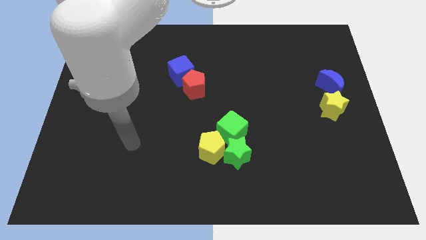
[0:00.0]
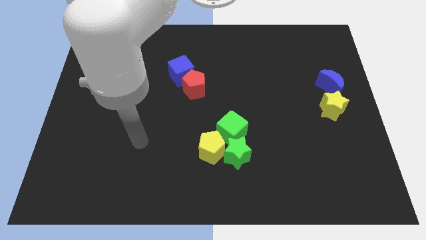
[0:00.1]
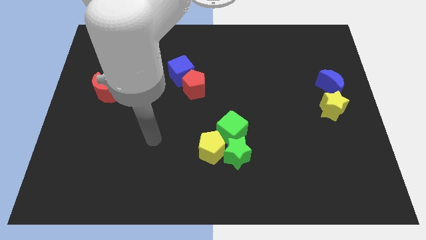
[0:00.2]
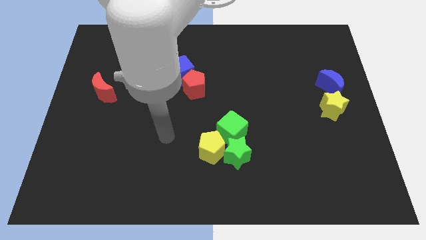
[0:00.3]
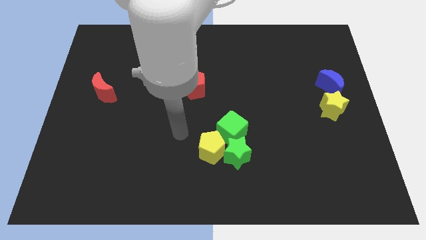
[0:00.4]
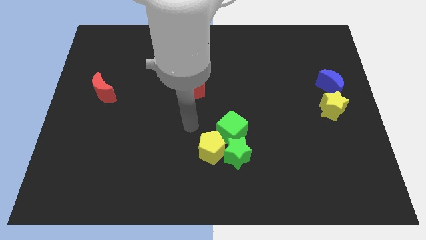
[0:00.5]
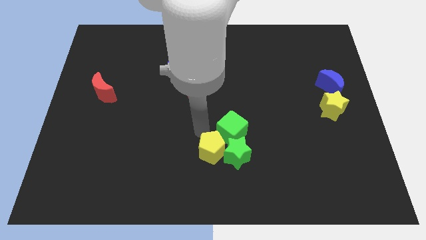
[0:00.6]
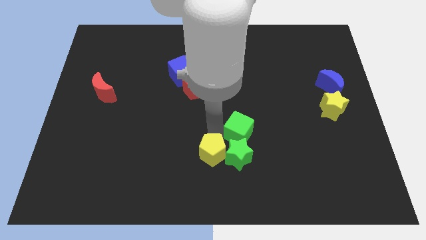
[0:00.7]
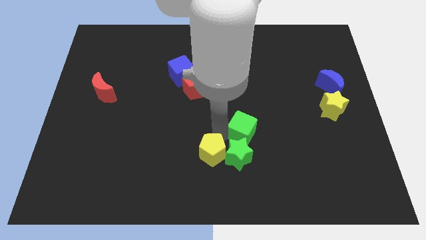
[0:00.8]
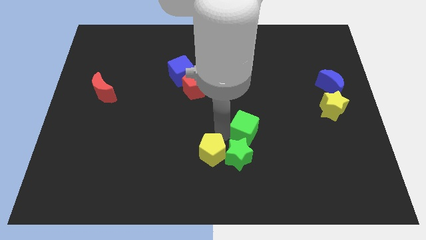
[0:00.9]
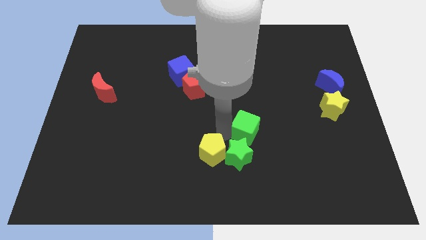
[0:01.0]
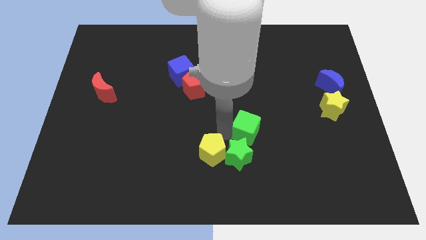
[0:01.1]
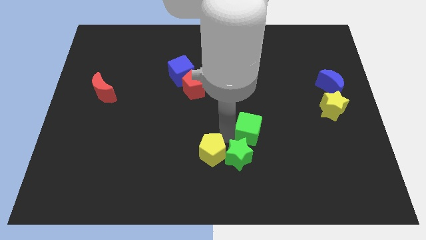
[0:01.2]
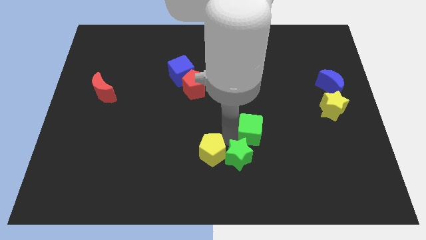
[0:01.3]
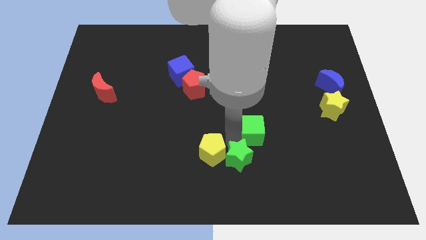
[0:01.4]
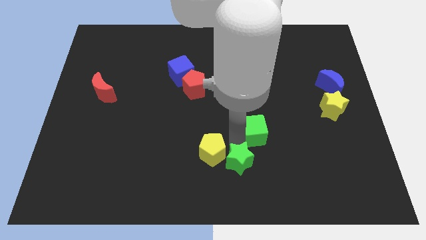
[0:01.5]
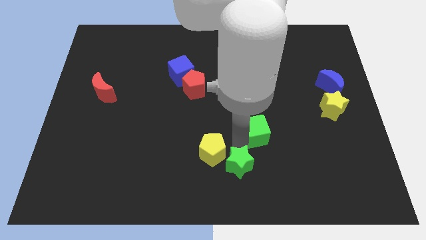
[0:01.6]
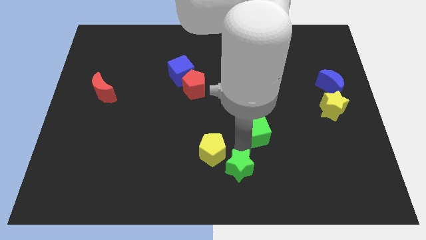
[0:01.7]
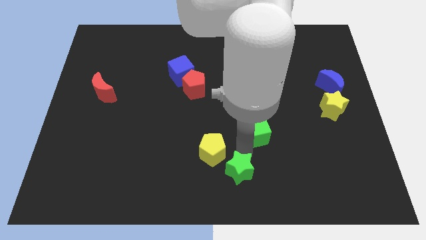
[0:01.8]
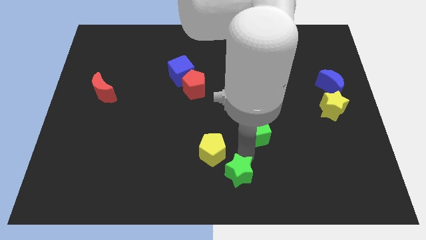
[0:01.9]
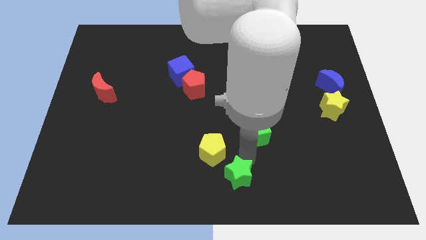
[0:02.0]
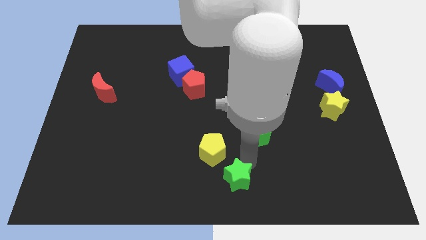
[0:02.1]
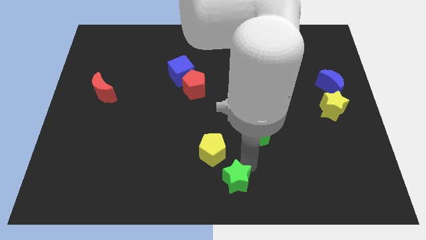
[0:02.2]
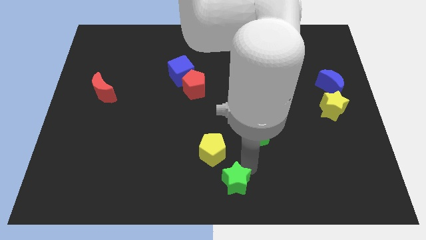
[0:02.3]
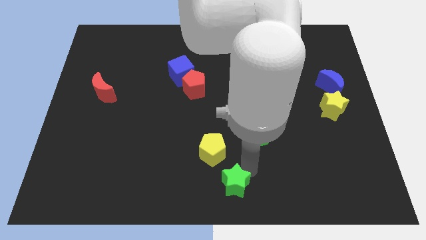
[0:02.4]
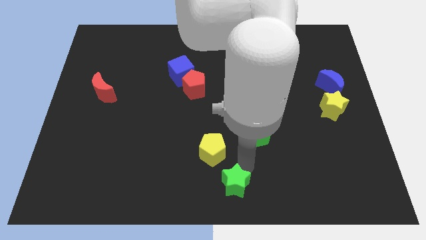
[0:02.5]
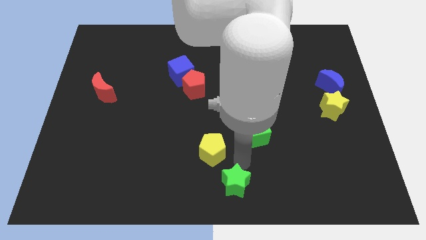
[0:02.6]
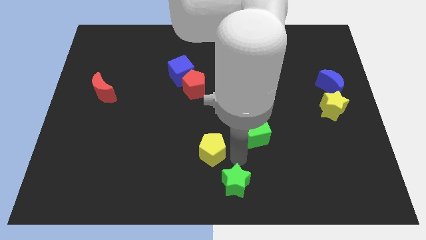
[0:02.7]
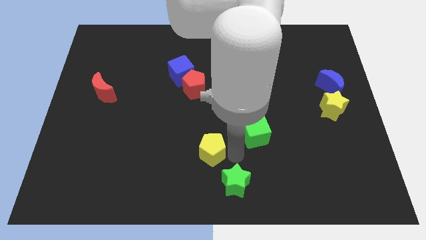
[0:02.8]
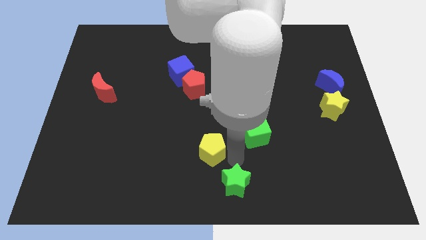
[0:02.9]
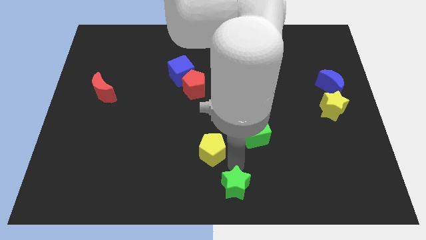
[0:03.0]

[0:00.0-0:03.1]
pull the green star apart from the yellow pentagon and green cube

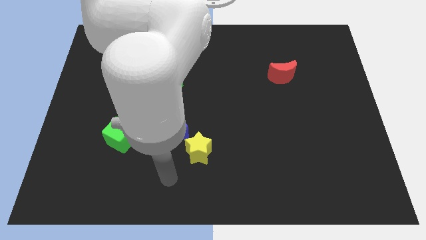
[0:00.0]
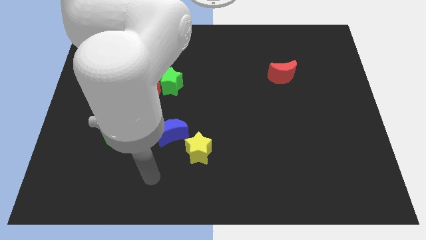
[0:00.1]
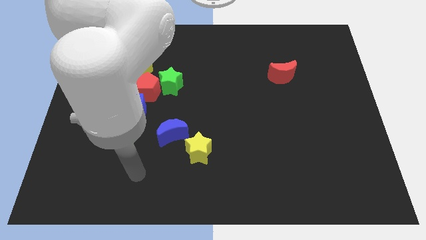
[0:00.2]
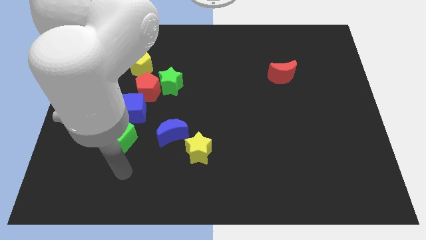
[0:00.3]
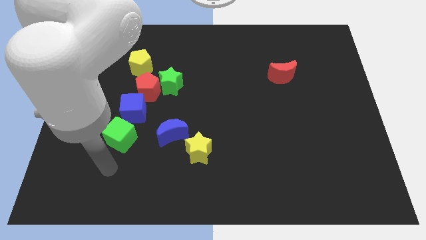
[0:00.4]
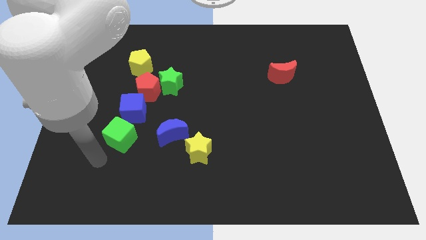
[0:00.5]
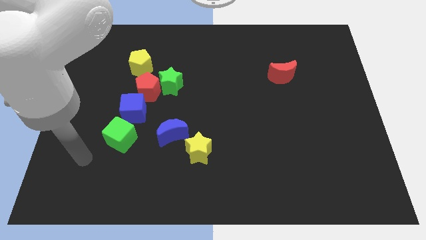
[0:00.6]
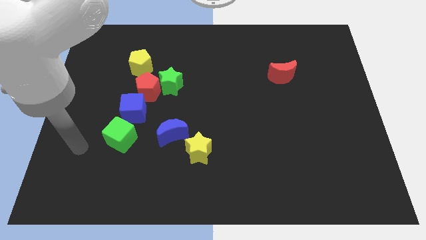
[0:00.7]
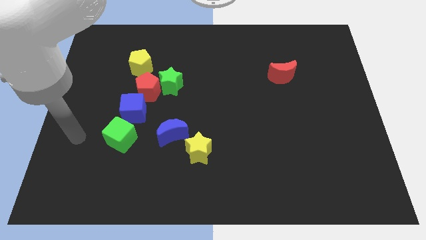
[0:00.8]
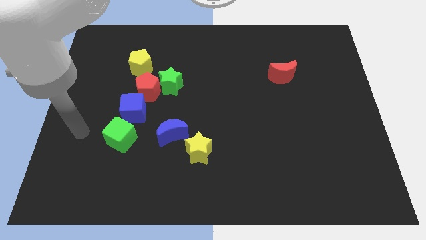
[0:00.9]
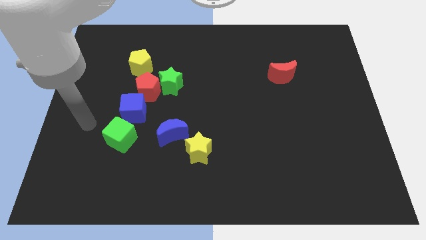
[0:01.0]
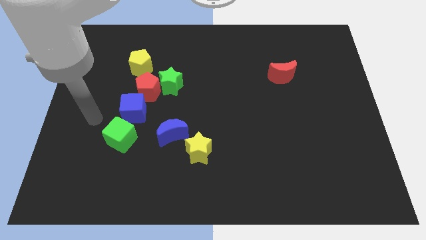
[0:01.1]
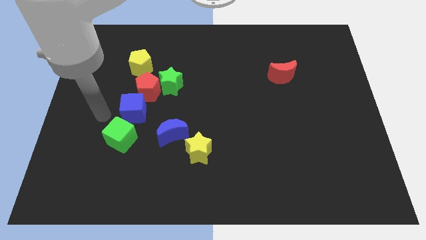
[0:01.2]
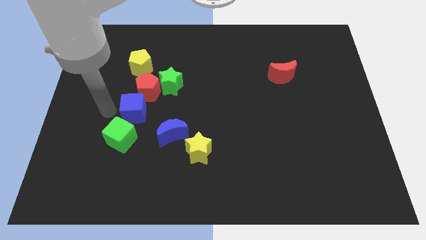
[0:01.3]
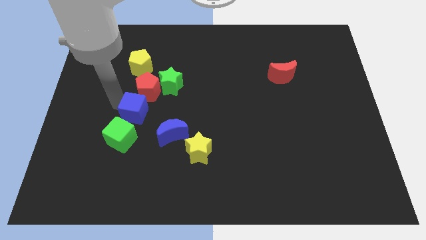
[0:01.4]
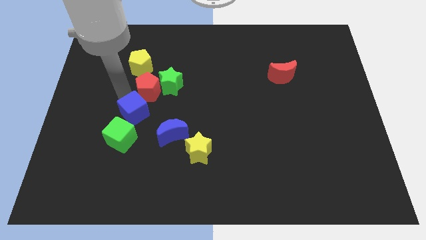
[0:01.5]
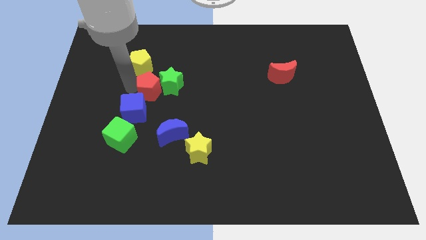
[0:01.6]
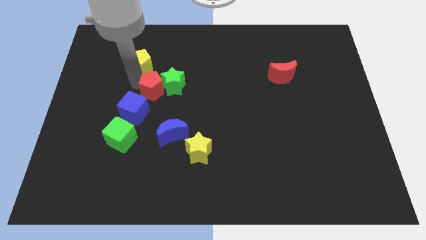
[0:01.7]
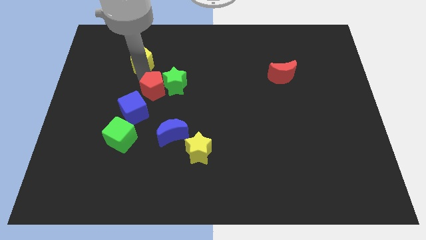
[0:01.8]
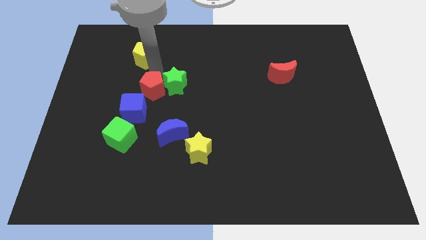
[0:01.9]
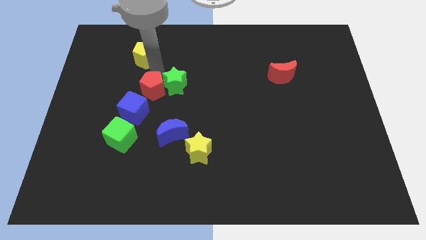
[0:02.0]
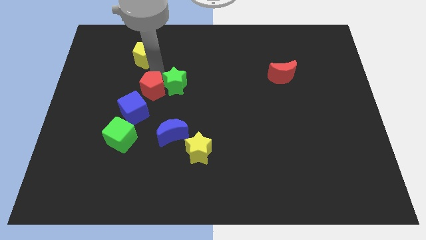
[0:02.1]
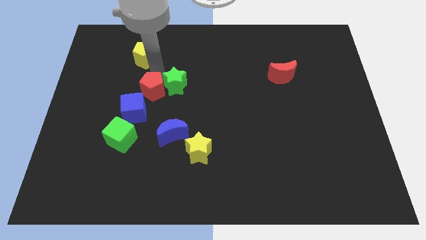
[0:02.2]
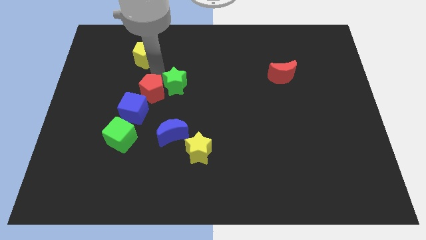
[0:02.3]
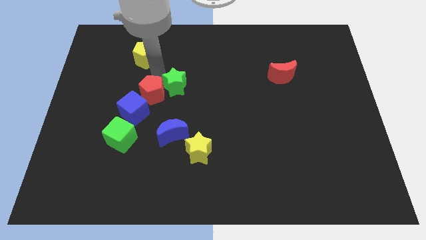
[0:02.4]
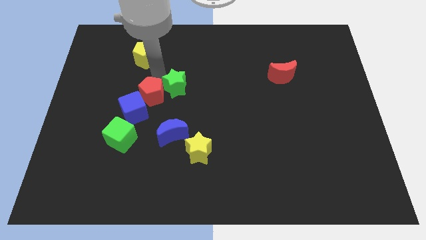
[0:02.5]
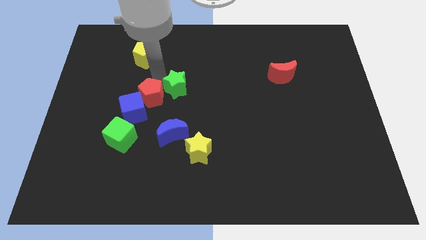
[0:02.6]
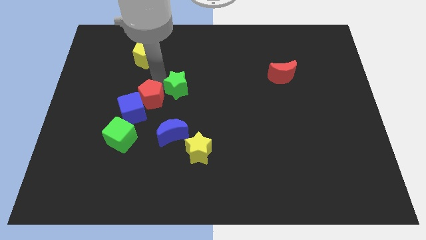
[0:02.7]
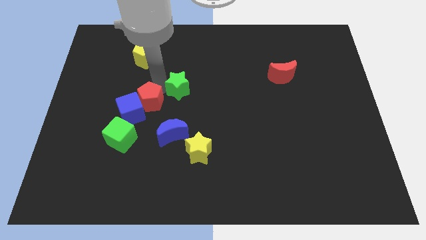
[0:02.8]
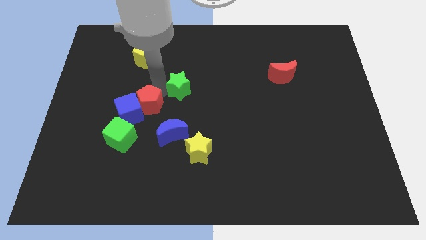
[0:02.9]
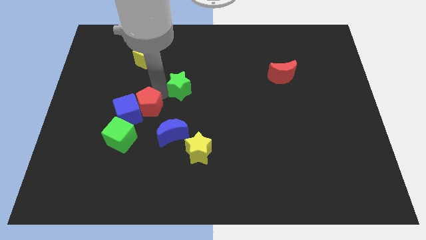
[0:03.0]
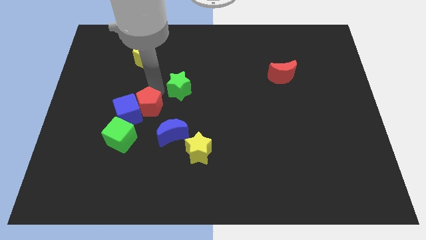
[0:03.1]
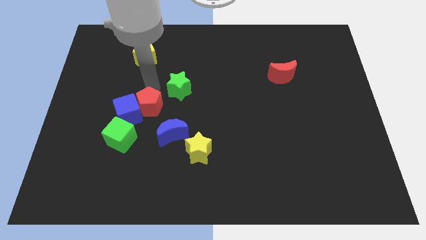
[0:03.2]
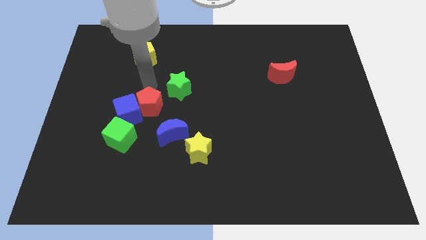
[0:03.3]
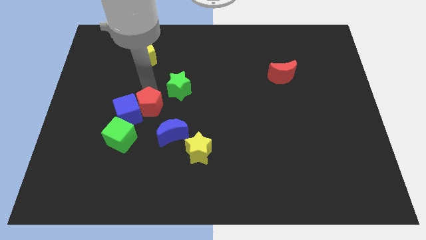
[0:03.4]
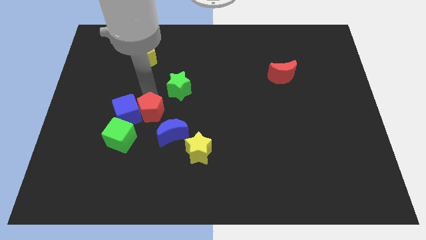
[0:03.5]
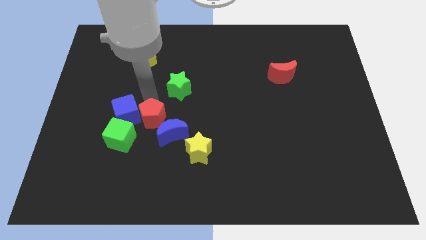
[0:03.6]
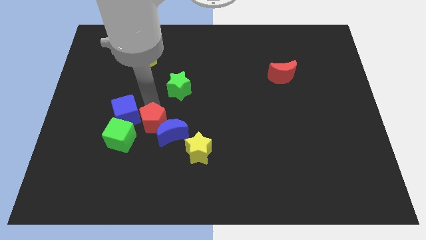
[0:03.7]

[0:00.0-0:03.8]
separate the red pentagon from the green star, blue cube, and yellow pentagon

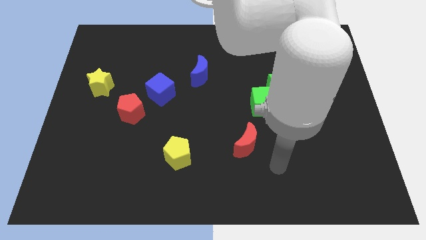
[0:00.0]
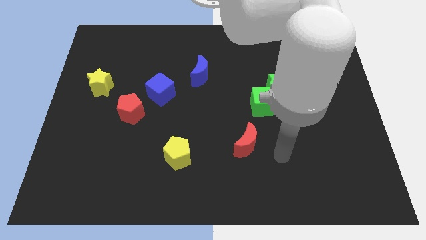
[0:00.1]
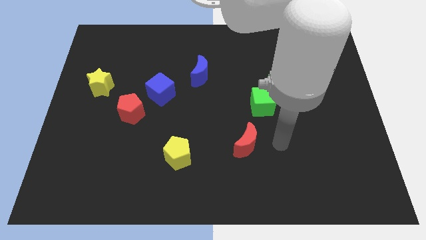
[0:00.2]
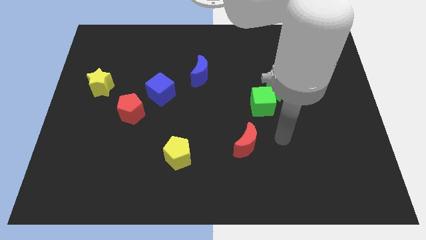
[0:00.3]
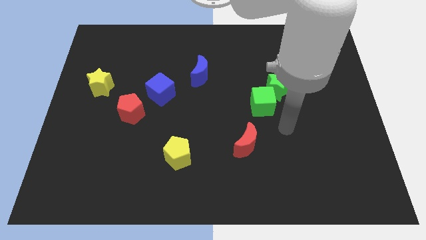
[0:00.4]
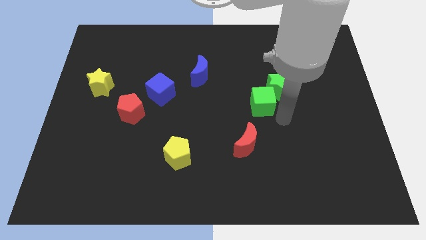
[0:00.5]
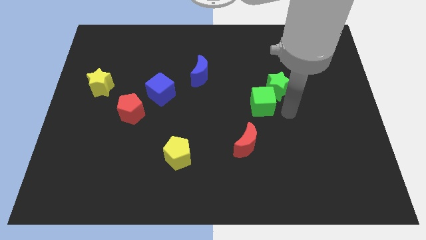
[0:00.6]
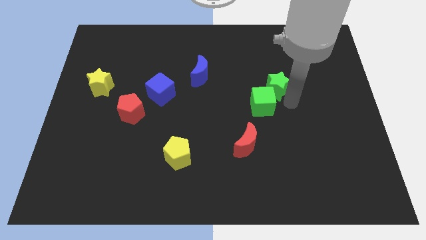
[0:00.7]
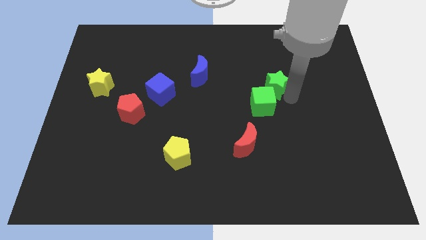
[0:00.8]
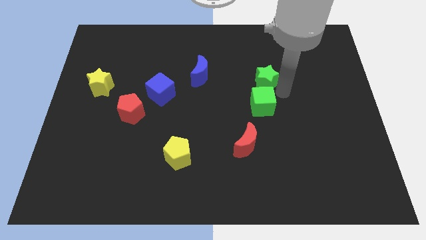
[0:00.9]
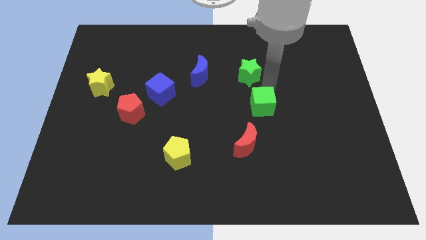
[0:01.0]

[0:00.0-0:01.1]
separate the green cube from the green star

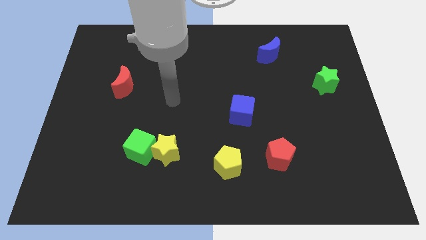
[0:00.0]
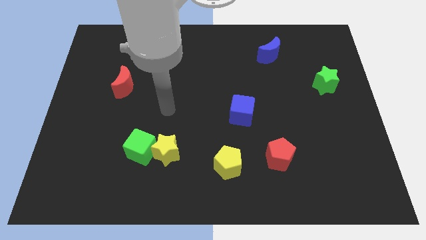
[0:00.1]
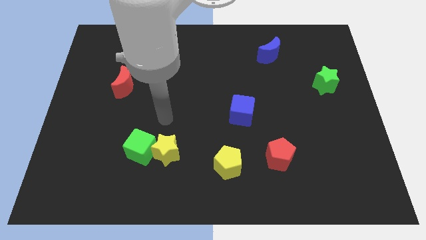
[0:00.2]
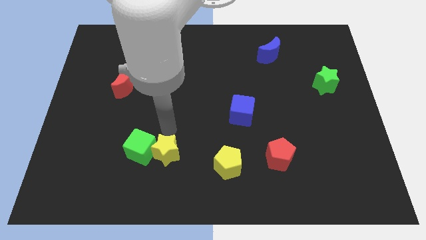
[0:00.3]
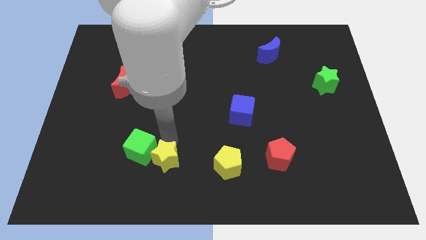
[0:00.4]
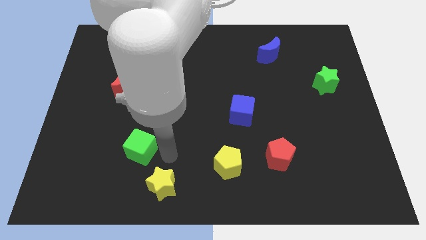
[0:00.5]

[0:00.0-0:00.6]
move the green cube away from the yellow star

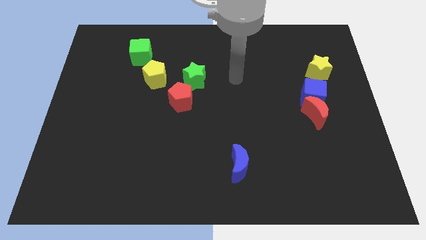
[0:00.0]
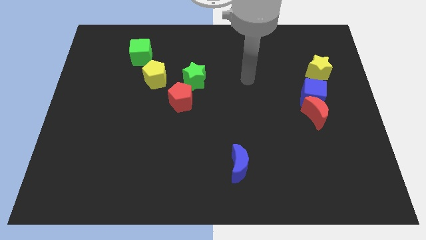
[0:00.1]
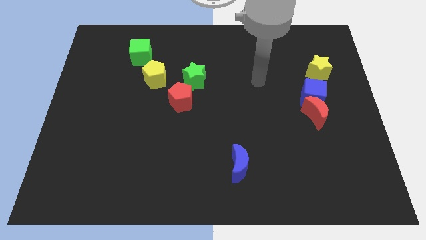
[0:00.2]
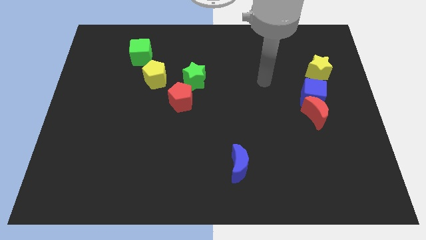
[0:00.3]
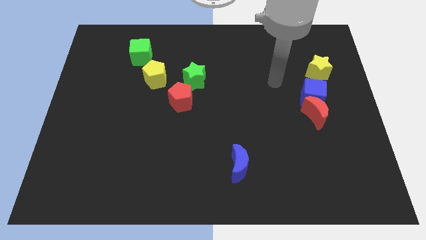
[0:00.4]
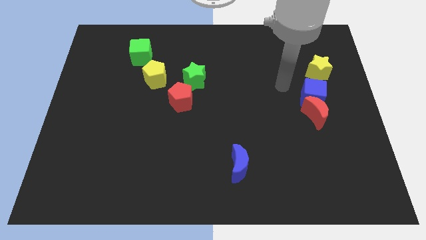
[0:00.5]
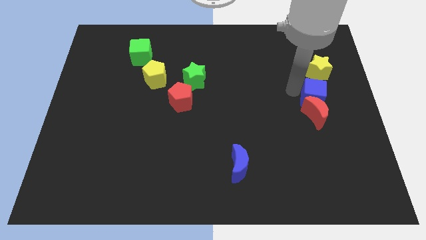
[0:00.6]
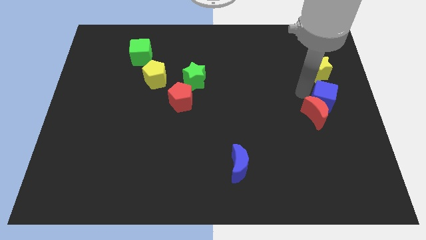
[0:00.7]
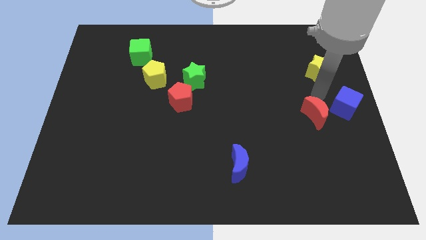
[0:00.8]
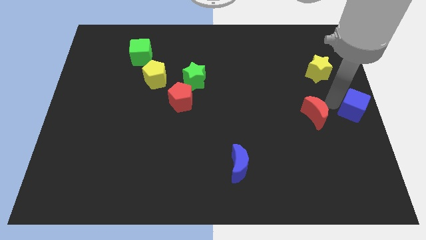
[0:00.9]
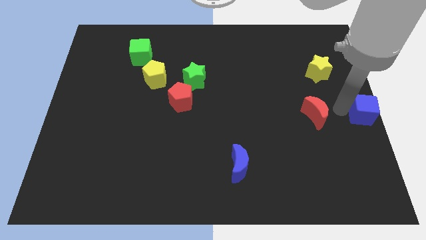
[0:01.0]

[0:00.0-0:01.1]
pull the red moon apart from the blue cube
